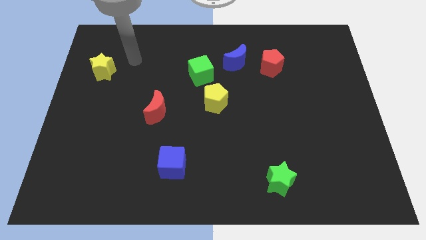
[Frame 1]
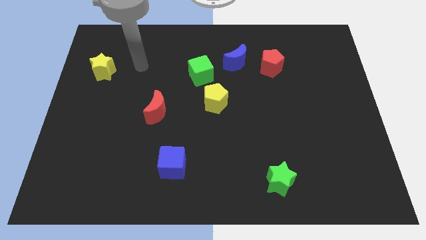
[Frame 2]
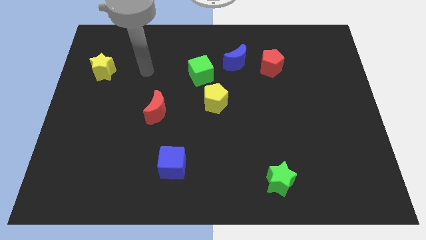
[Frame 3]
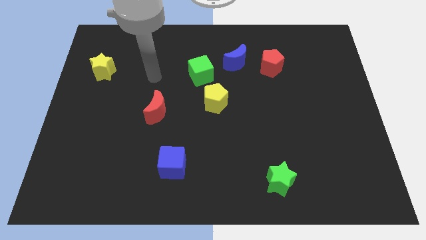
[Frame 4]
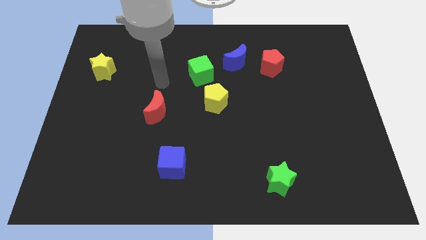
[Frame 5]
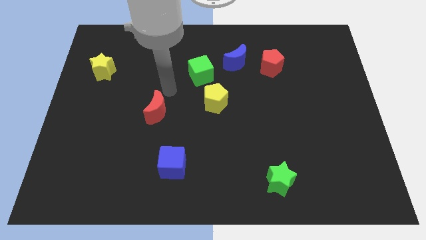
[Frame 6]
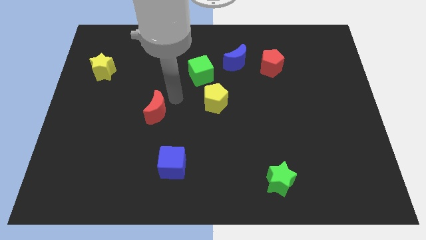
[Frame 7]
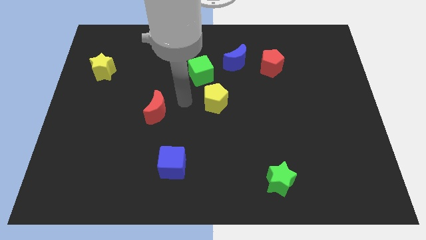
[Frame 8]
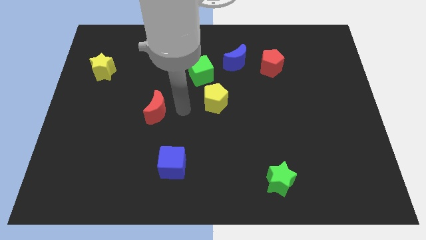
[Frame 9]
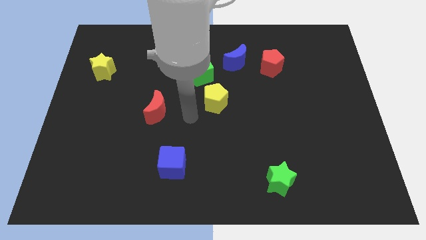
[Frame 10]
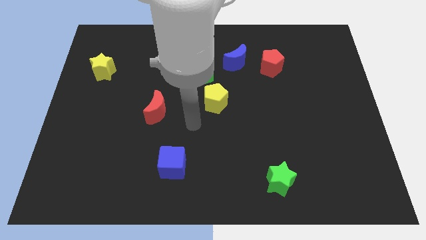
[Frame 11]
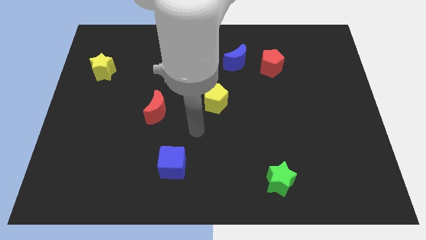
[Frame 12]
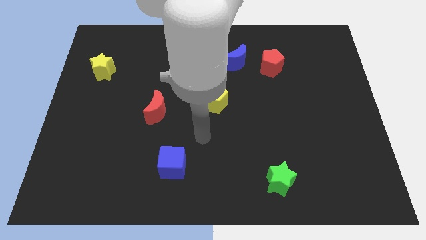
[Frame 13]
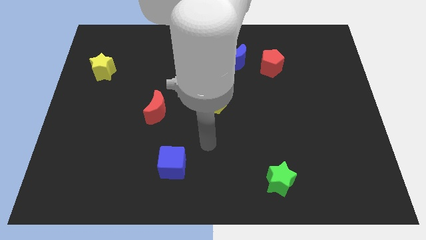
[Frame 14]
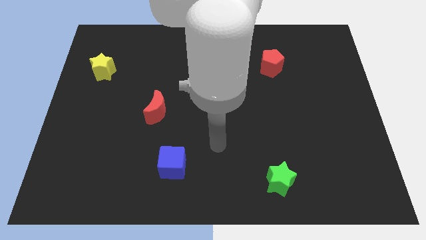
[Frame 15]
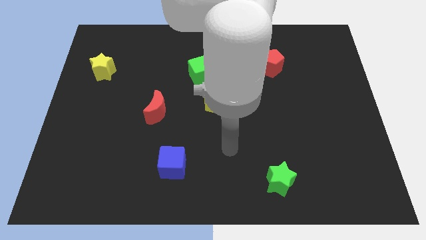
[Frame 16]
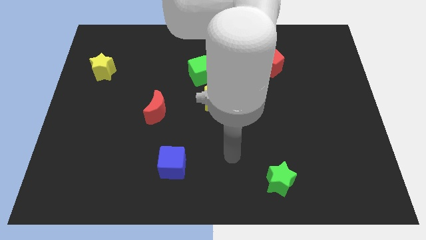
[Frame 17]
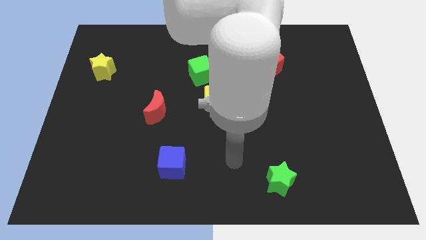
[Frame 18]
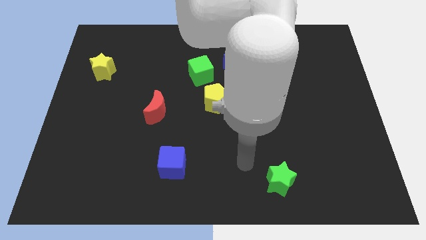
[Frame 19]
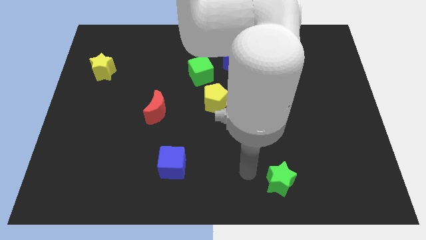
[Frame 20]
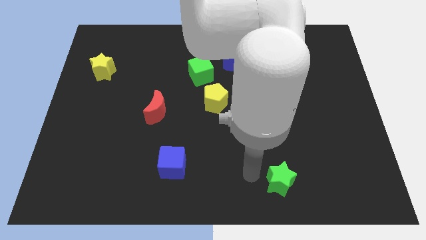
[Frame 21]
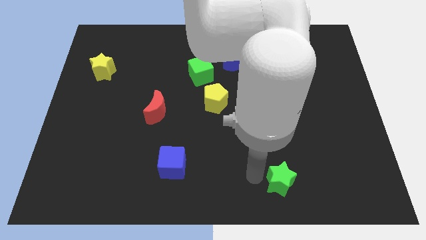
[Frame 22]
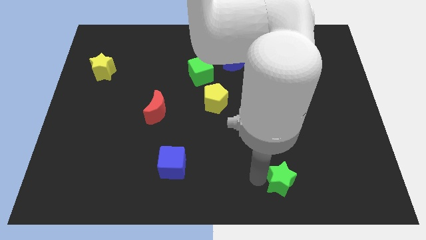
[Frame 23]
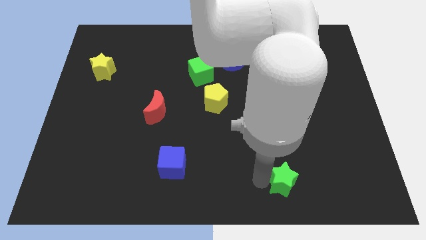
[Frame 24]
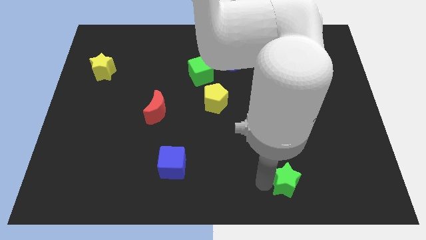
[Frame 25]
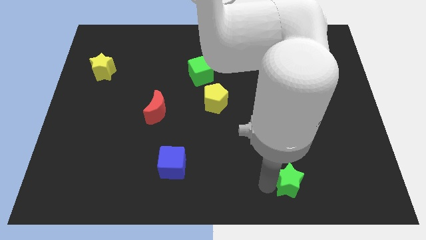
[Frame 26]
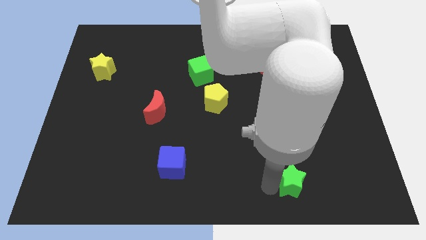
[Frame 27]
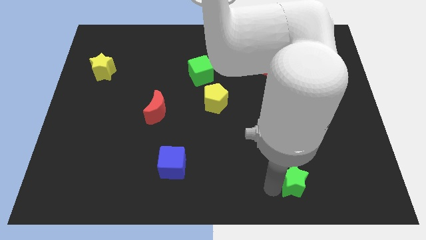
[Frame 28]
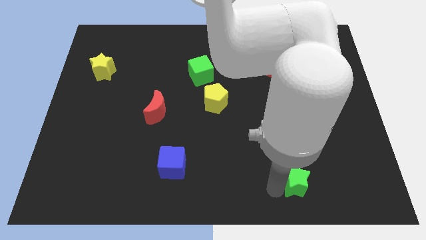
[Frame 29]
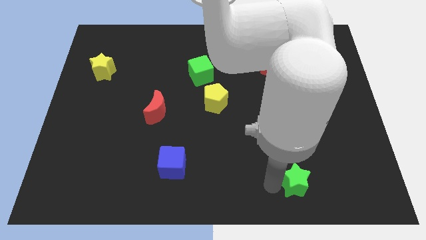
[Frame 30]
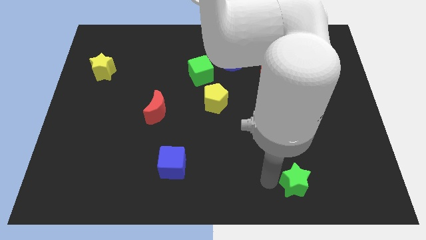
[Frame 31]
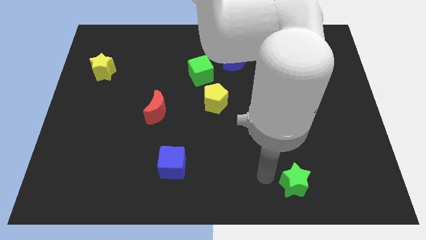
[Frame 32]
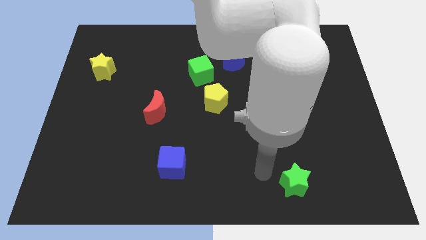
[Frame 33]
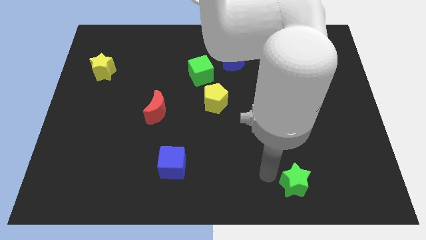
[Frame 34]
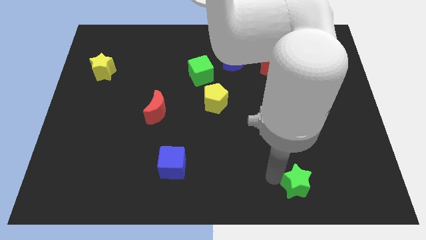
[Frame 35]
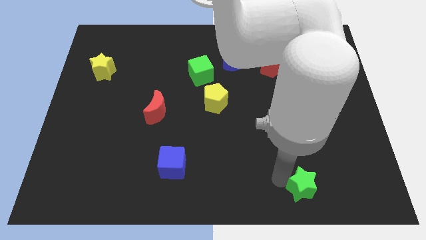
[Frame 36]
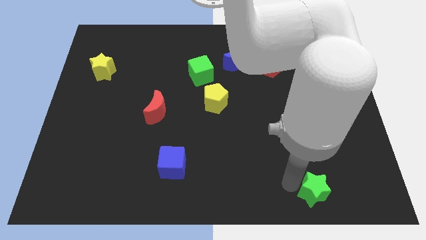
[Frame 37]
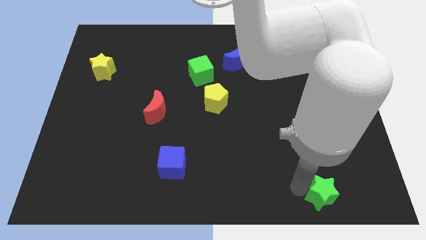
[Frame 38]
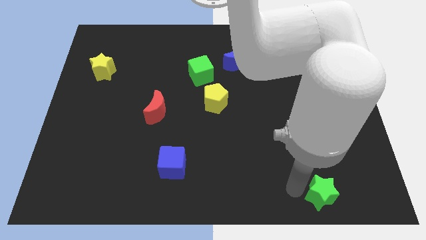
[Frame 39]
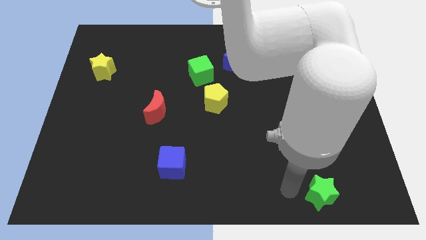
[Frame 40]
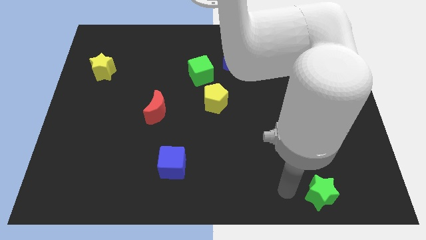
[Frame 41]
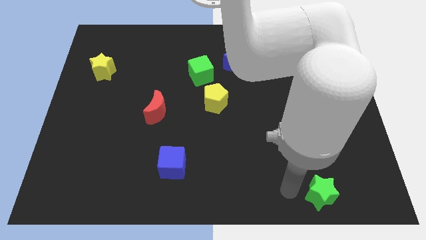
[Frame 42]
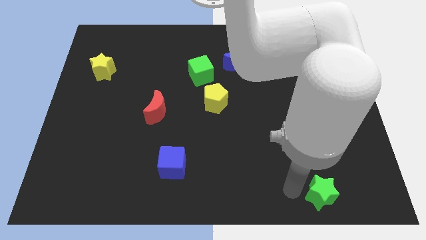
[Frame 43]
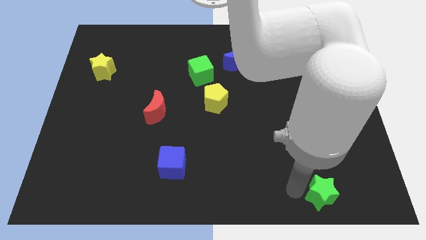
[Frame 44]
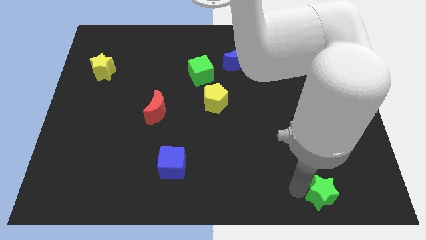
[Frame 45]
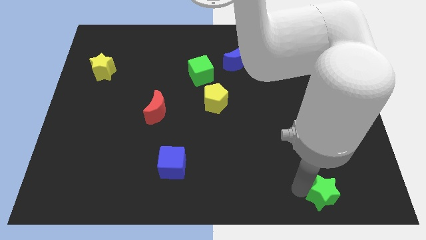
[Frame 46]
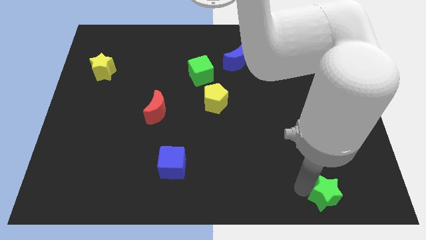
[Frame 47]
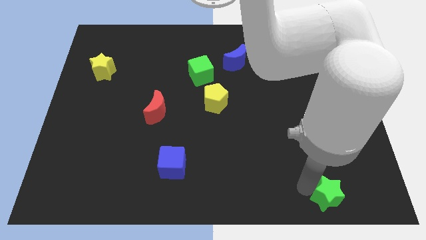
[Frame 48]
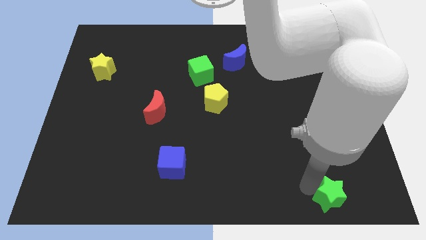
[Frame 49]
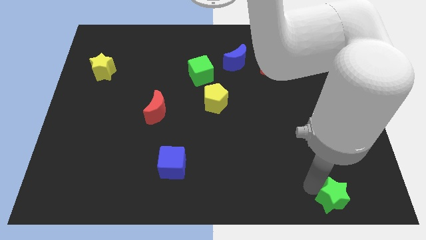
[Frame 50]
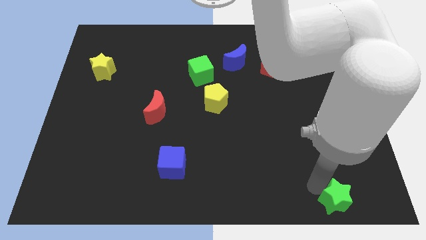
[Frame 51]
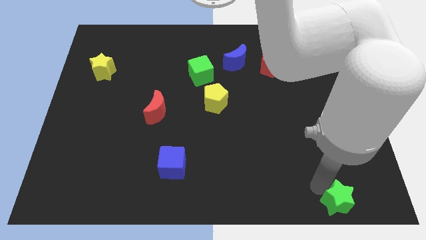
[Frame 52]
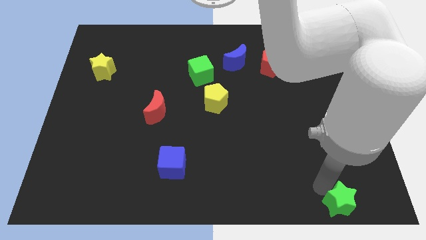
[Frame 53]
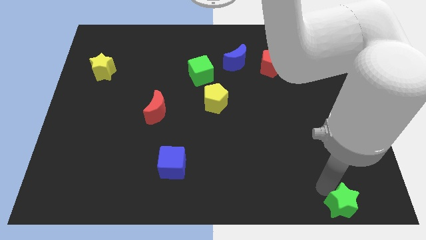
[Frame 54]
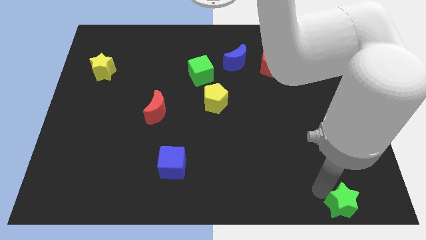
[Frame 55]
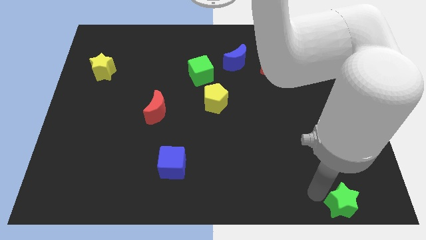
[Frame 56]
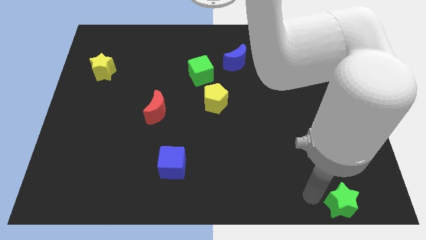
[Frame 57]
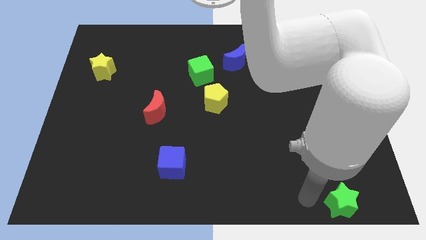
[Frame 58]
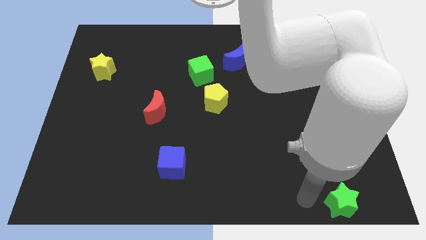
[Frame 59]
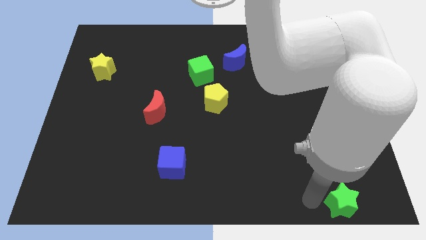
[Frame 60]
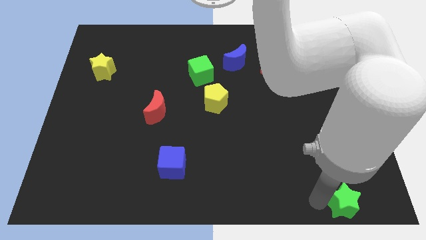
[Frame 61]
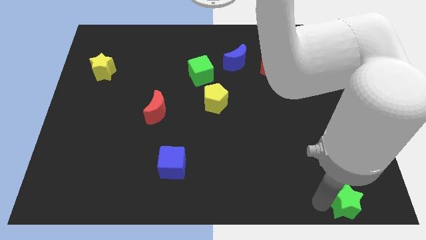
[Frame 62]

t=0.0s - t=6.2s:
put the green star to the bottom right of the board

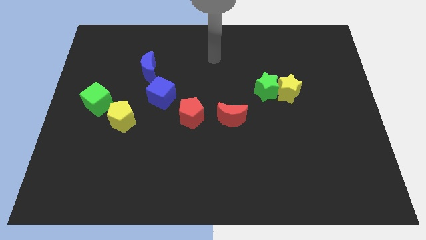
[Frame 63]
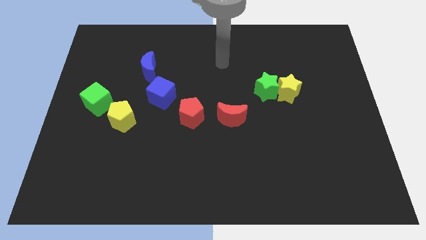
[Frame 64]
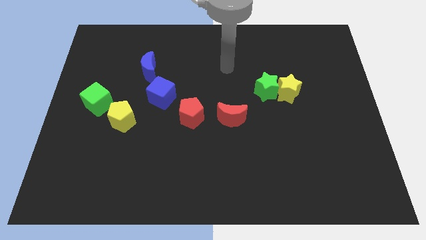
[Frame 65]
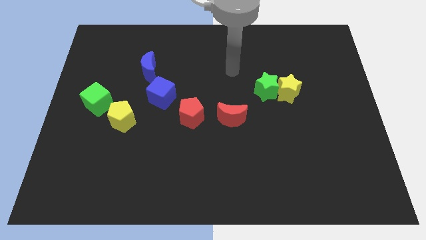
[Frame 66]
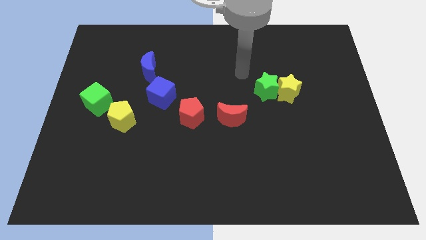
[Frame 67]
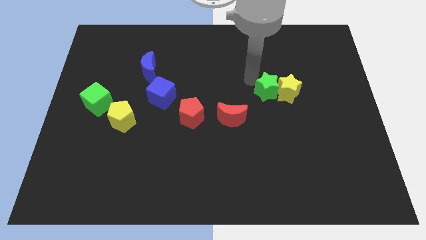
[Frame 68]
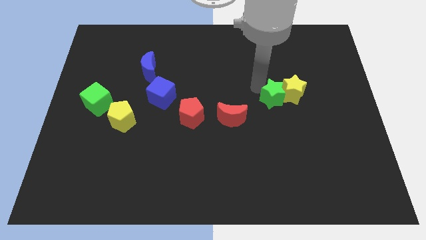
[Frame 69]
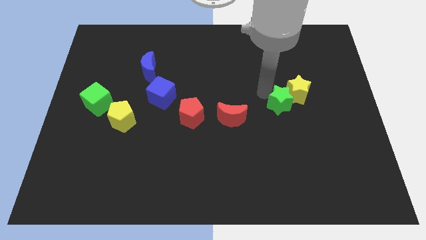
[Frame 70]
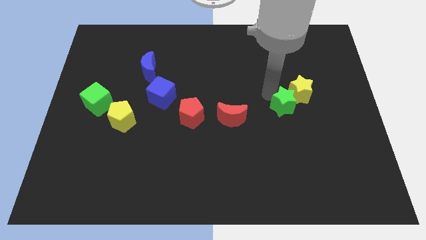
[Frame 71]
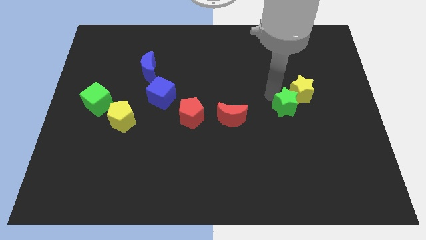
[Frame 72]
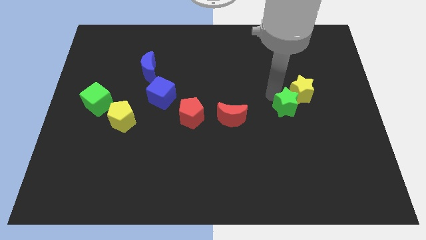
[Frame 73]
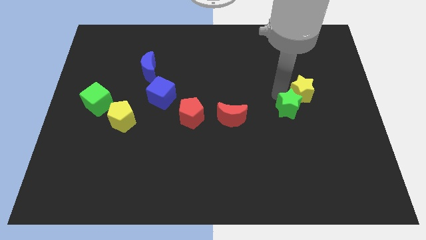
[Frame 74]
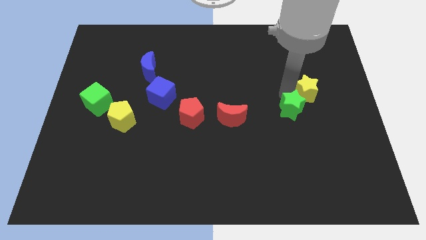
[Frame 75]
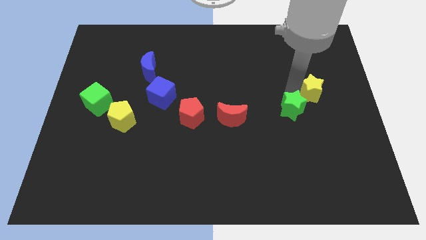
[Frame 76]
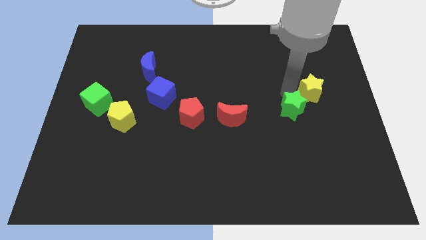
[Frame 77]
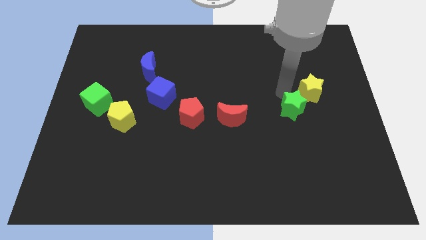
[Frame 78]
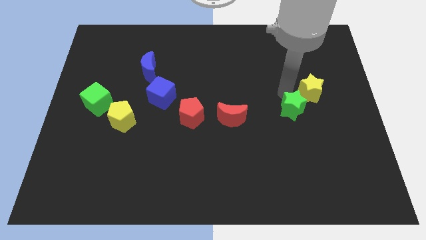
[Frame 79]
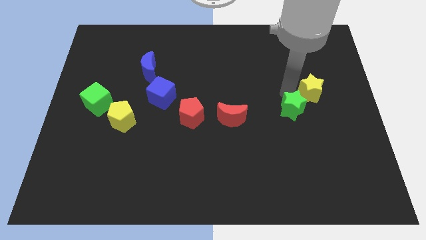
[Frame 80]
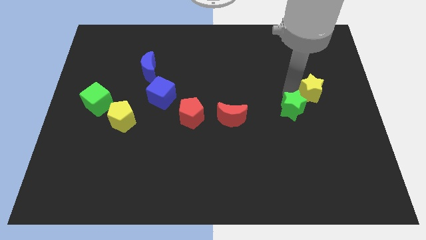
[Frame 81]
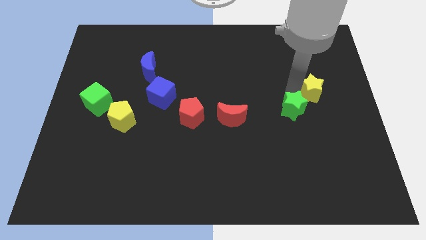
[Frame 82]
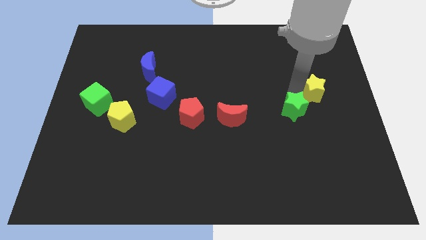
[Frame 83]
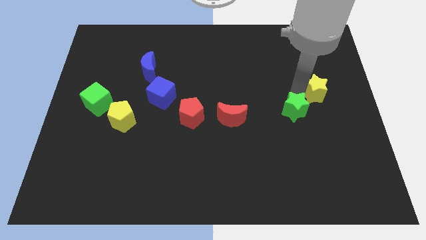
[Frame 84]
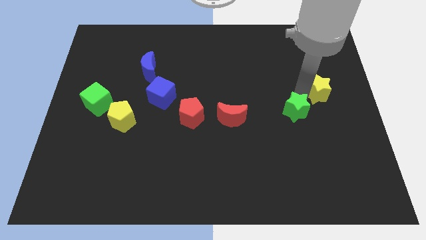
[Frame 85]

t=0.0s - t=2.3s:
push the yellow star to the right side of the board
